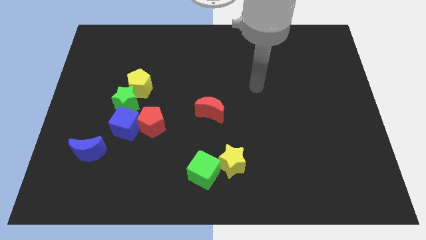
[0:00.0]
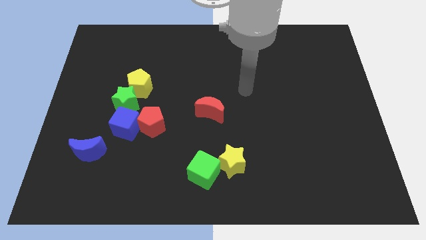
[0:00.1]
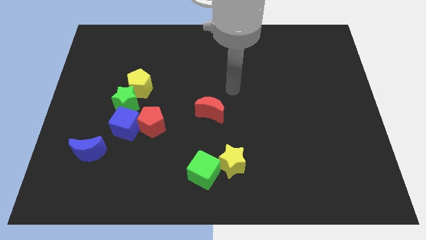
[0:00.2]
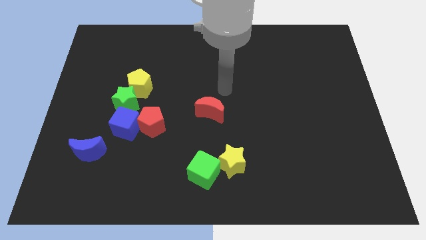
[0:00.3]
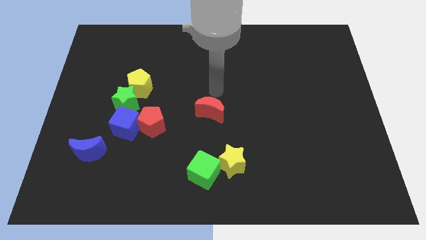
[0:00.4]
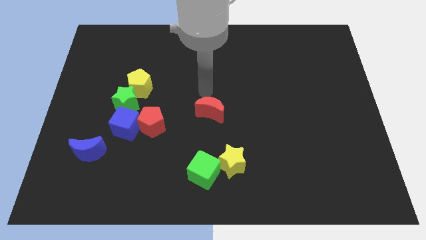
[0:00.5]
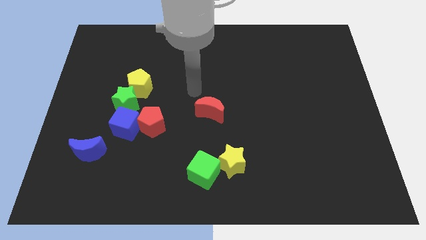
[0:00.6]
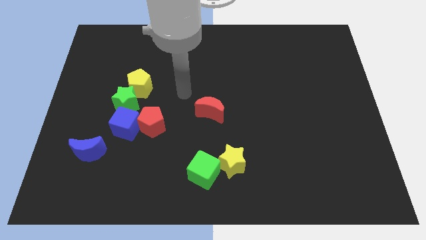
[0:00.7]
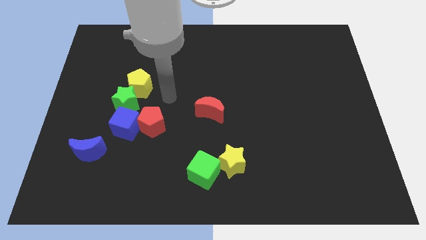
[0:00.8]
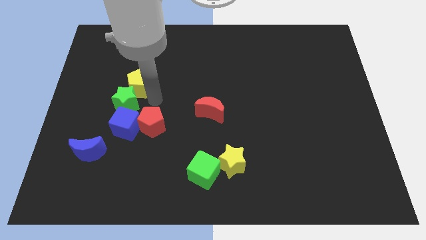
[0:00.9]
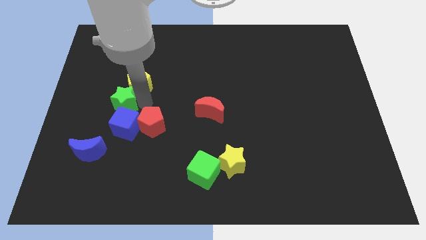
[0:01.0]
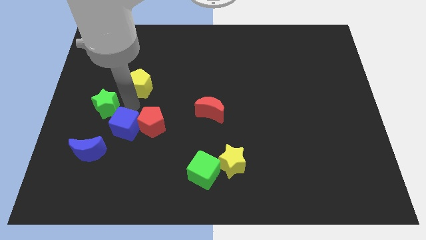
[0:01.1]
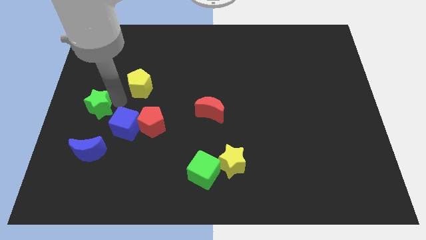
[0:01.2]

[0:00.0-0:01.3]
pull the yellow pentagon apart from the green star

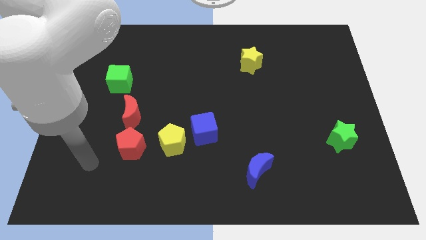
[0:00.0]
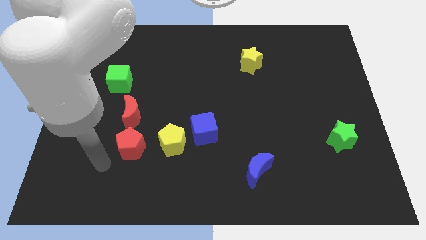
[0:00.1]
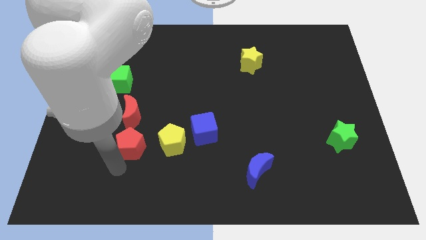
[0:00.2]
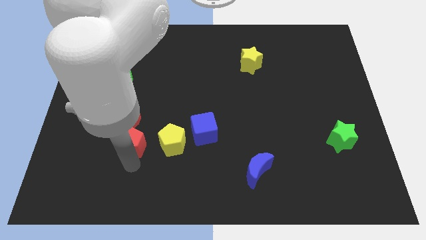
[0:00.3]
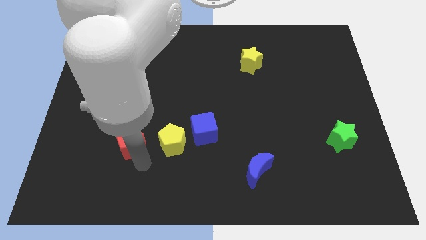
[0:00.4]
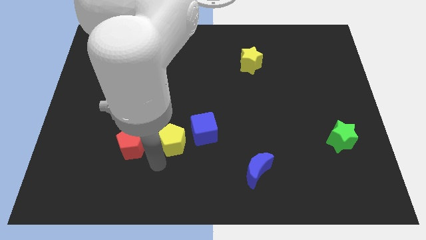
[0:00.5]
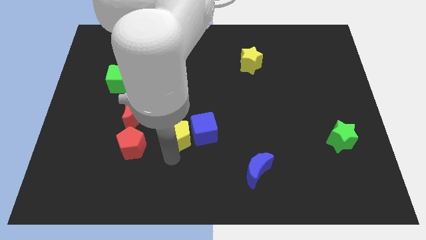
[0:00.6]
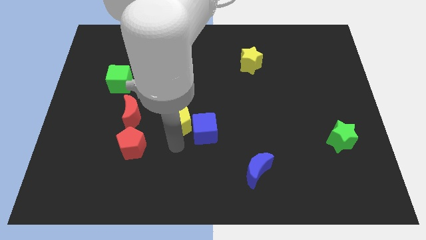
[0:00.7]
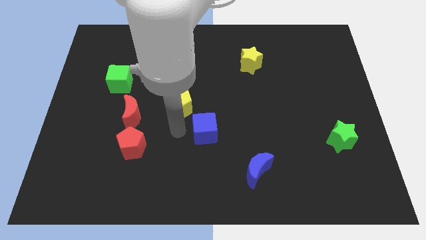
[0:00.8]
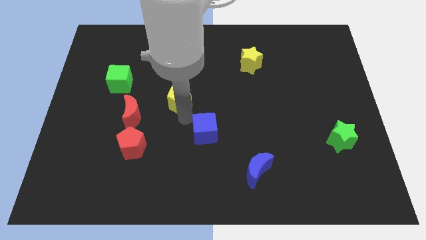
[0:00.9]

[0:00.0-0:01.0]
pull the blue cube apart from the yellow pentagon

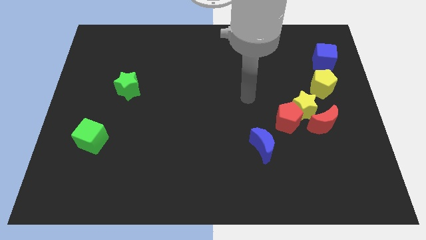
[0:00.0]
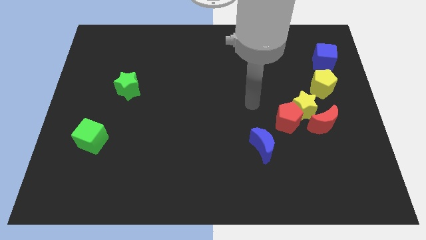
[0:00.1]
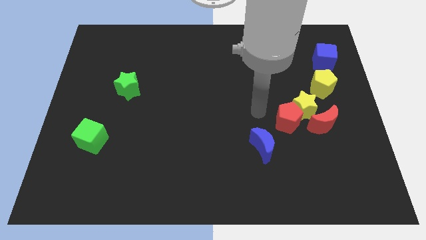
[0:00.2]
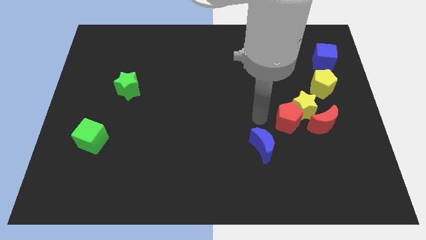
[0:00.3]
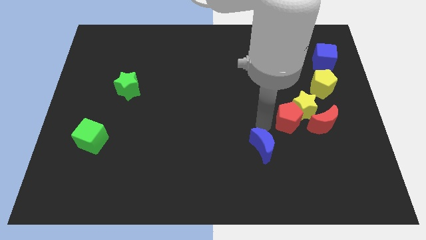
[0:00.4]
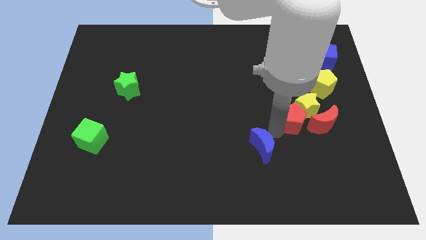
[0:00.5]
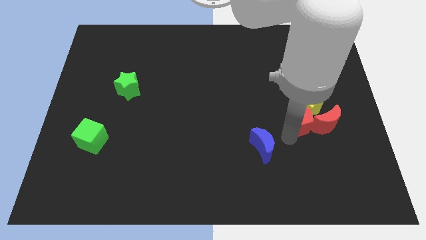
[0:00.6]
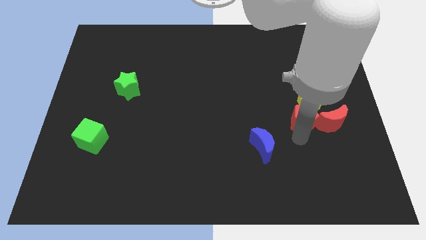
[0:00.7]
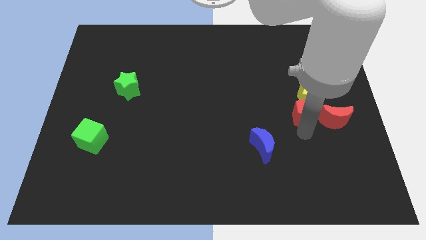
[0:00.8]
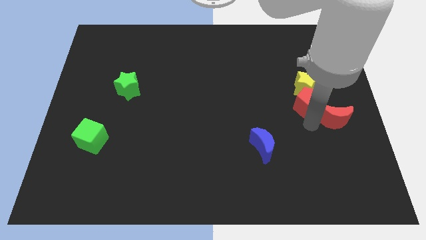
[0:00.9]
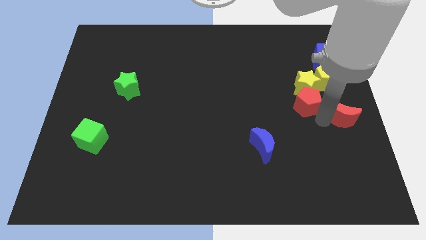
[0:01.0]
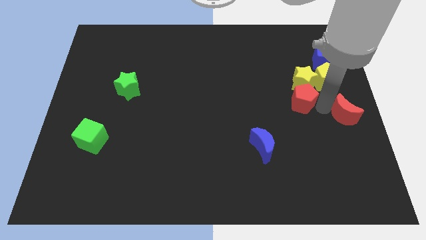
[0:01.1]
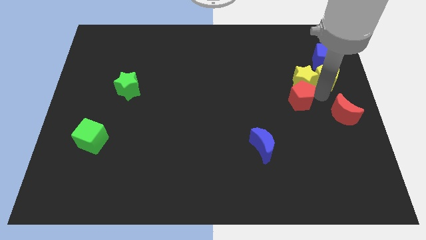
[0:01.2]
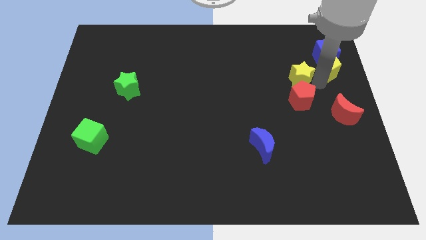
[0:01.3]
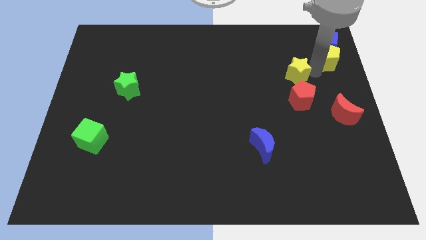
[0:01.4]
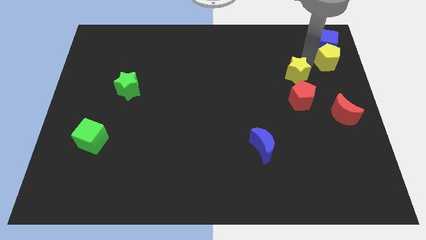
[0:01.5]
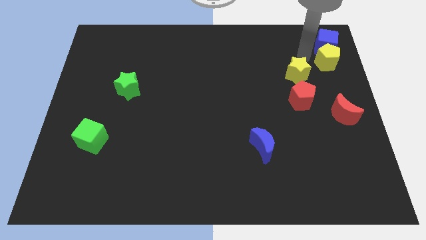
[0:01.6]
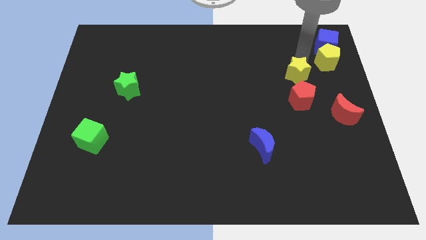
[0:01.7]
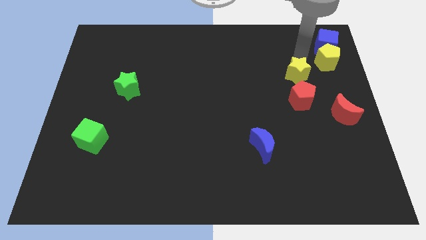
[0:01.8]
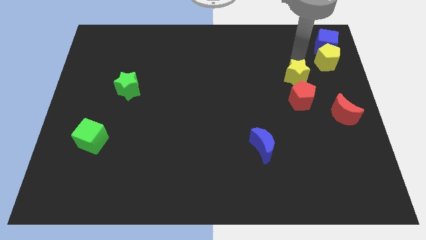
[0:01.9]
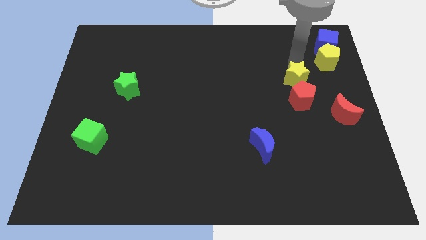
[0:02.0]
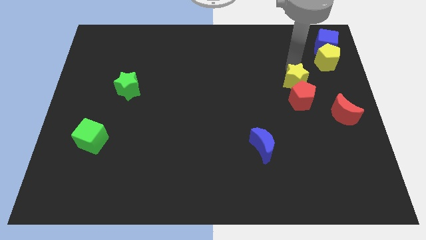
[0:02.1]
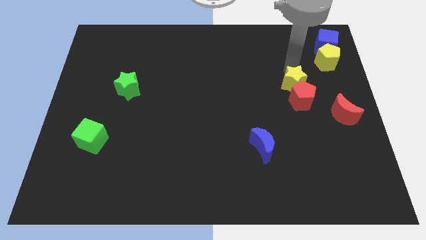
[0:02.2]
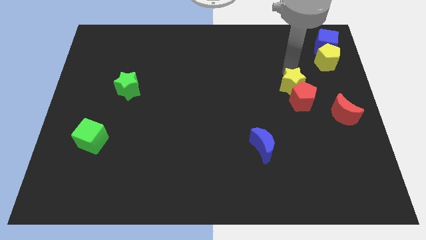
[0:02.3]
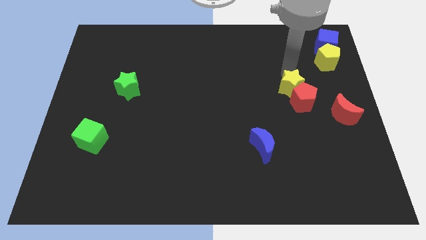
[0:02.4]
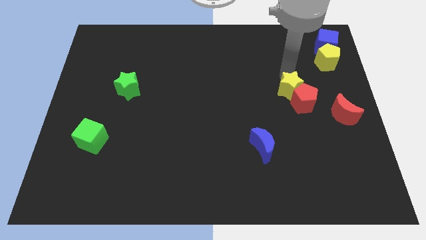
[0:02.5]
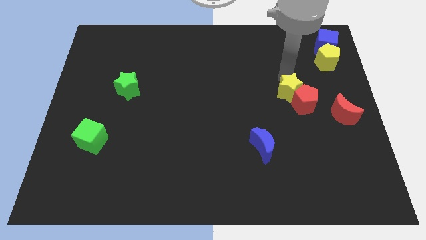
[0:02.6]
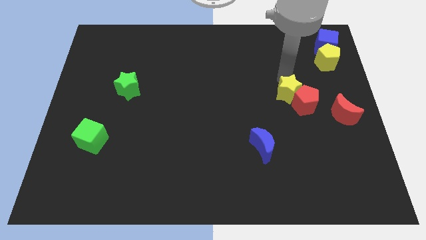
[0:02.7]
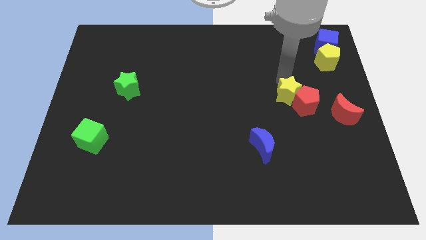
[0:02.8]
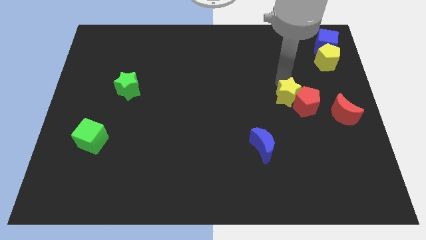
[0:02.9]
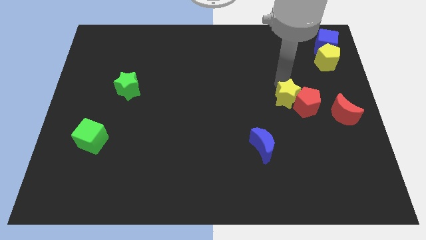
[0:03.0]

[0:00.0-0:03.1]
move the yellow star away from the red pentagon, red moon, and yellow pentagon

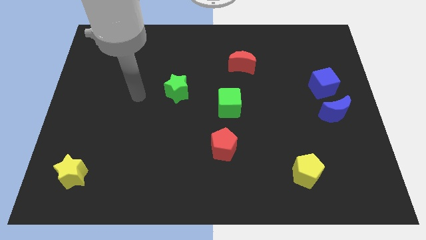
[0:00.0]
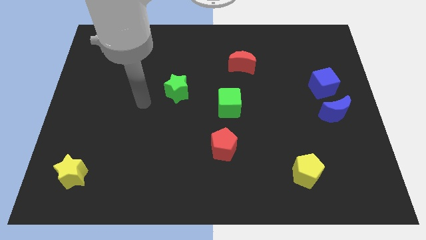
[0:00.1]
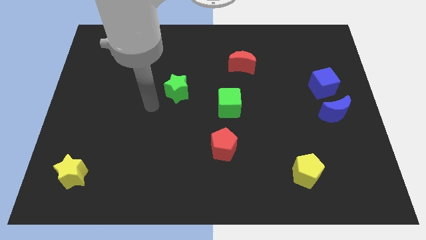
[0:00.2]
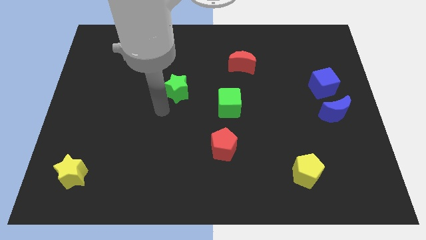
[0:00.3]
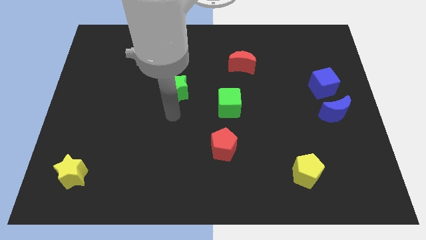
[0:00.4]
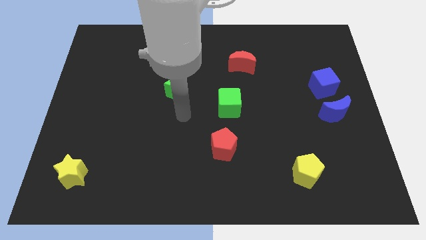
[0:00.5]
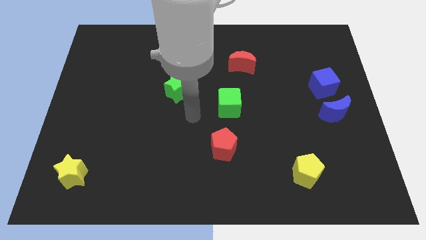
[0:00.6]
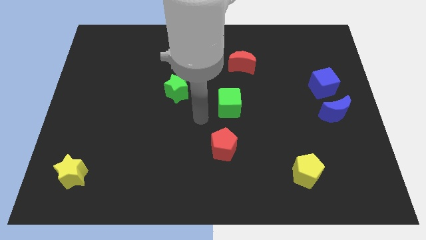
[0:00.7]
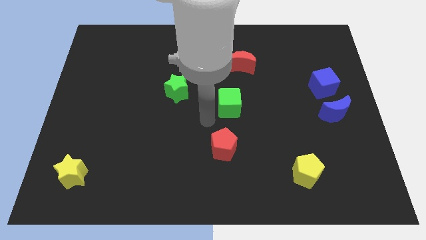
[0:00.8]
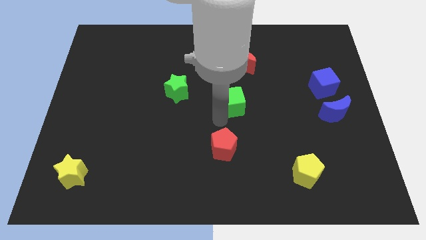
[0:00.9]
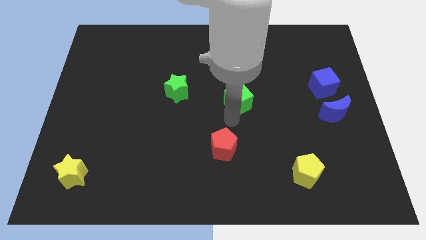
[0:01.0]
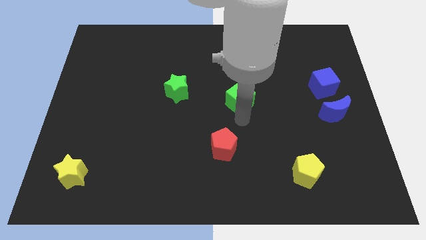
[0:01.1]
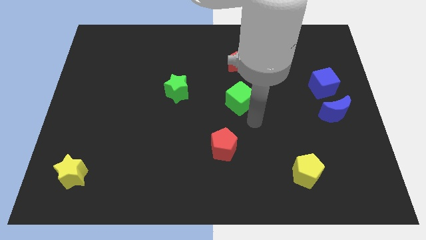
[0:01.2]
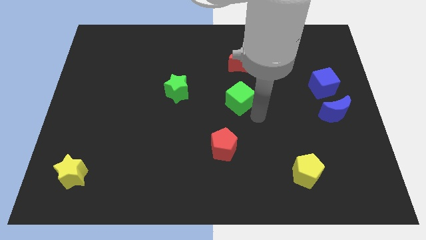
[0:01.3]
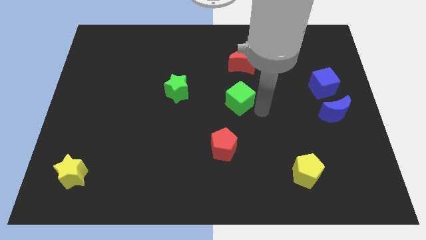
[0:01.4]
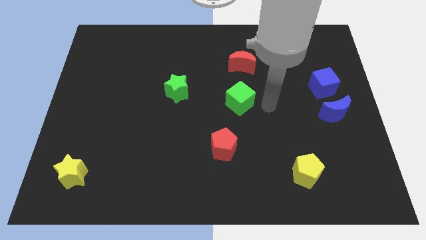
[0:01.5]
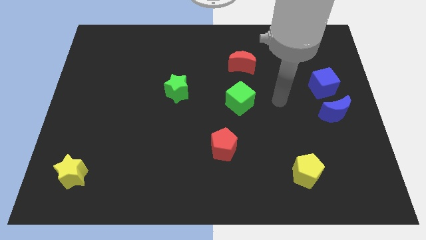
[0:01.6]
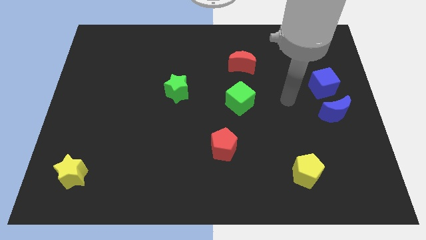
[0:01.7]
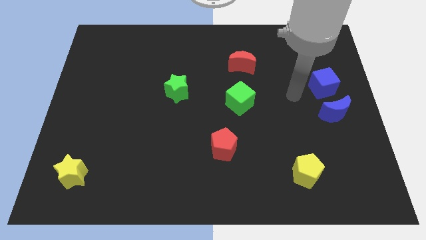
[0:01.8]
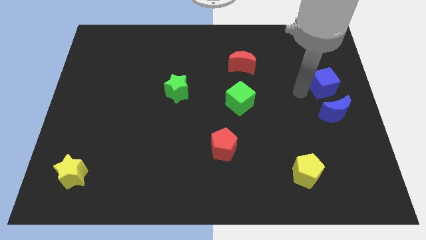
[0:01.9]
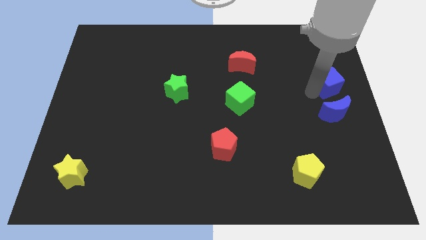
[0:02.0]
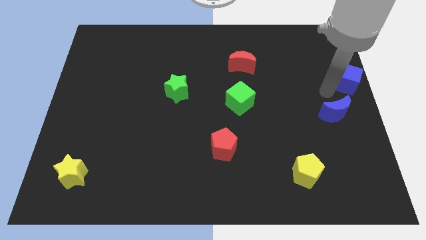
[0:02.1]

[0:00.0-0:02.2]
pull the blue moon apart from the blue cube

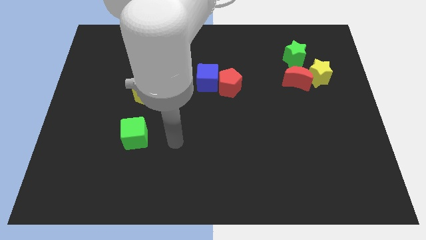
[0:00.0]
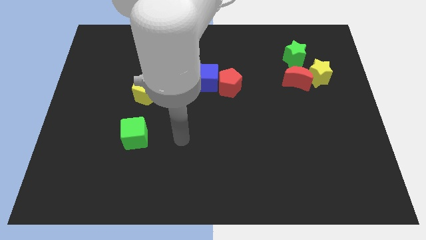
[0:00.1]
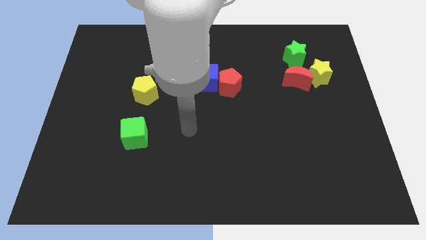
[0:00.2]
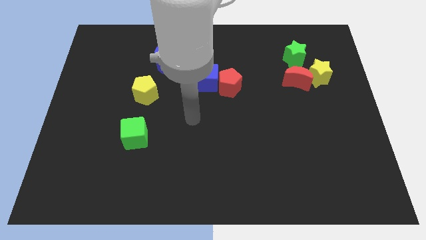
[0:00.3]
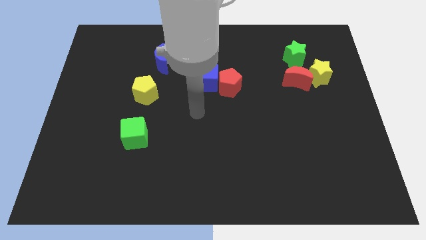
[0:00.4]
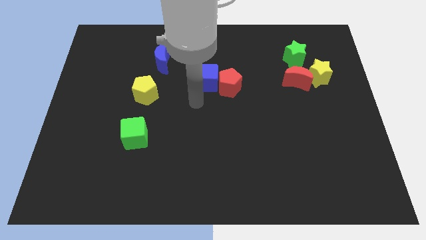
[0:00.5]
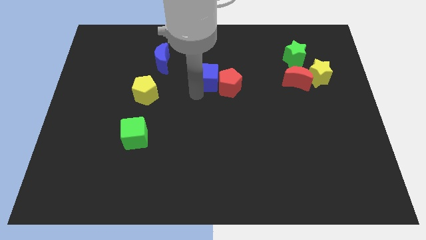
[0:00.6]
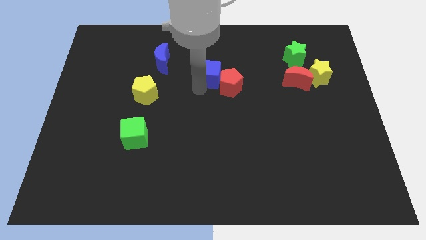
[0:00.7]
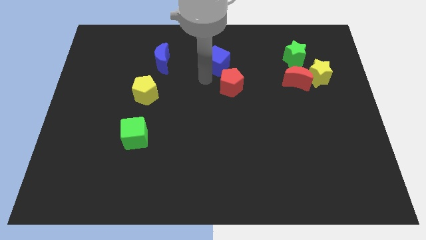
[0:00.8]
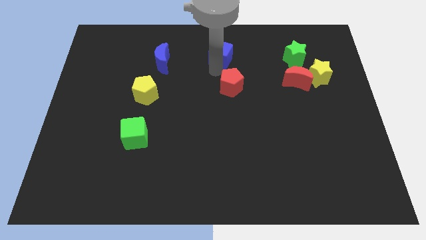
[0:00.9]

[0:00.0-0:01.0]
move the red pentagon away from the blue cube

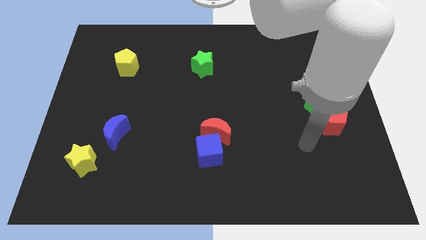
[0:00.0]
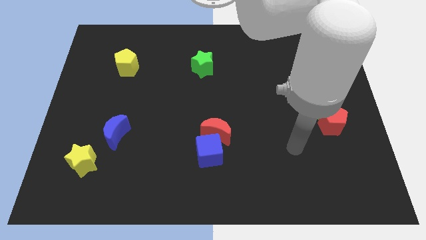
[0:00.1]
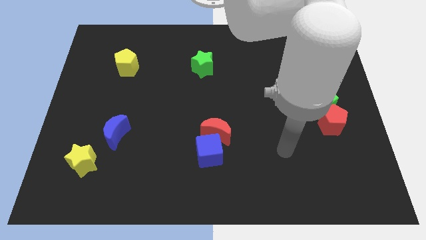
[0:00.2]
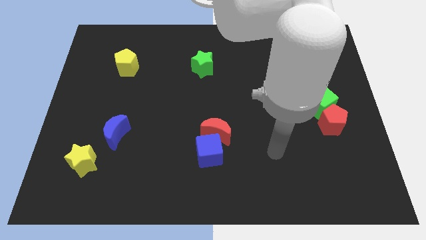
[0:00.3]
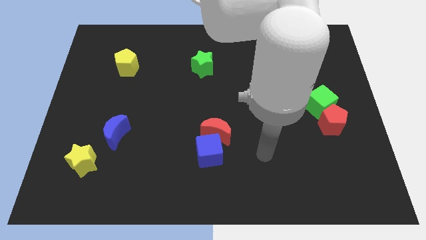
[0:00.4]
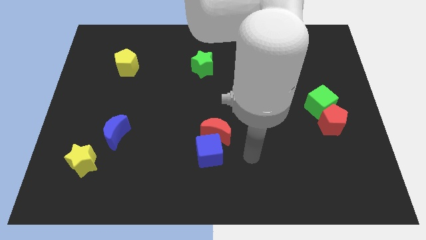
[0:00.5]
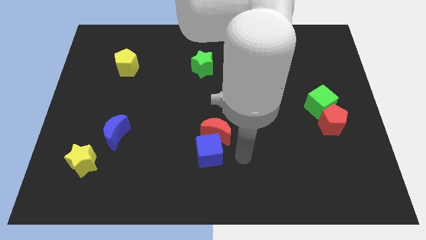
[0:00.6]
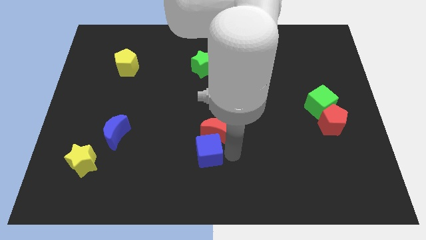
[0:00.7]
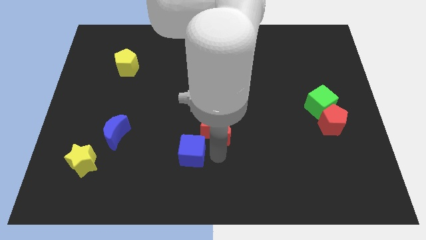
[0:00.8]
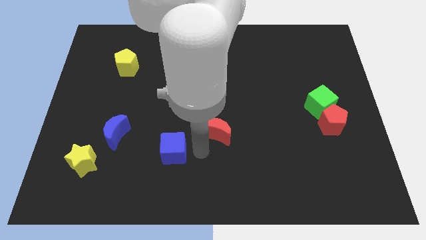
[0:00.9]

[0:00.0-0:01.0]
pull the red moon apart from the blue cube
